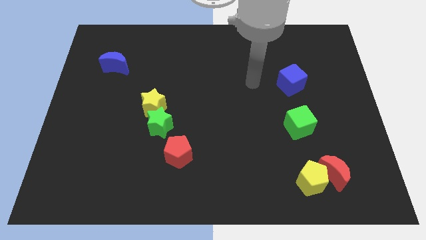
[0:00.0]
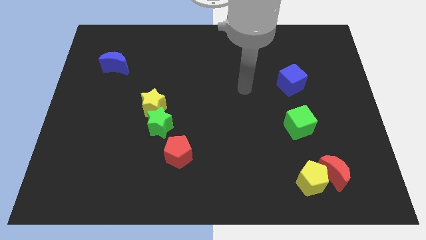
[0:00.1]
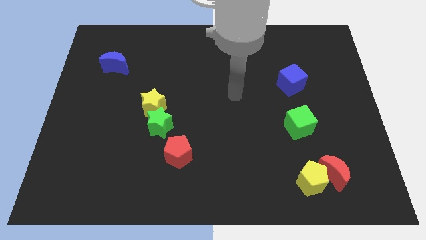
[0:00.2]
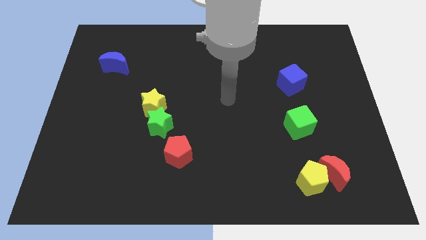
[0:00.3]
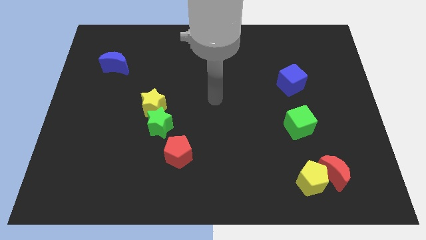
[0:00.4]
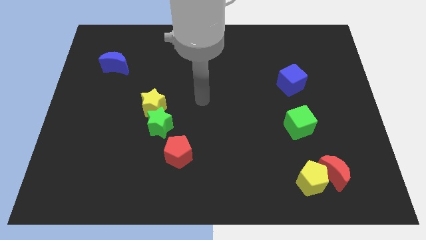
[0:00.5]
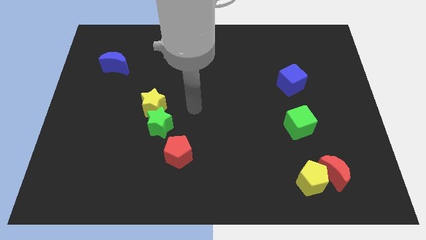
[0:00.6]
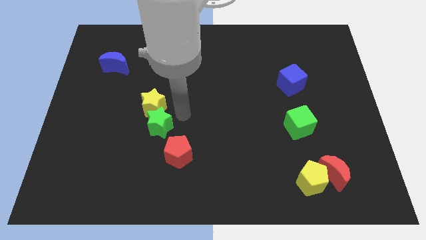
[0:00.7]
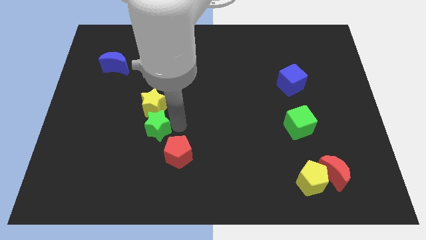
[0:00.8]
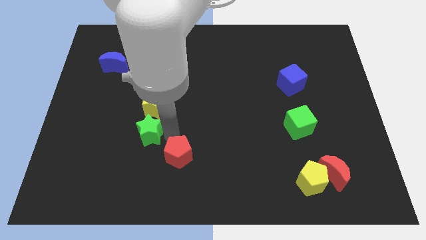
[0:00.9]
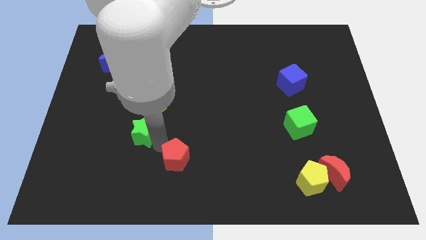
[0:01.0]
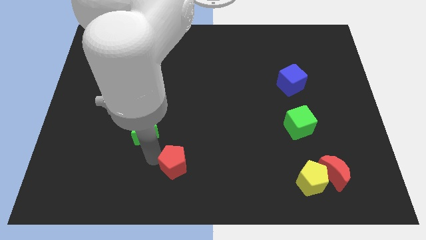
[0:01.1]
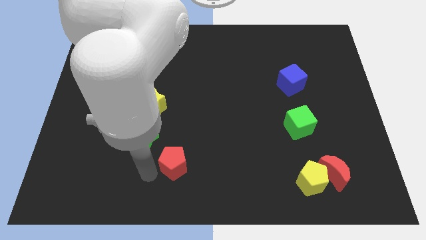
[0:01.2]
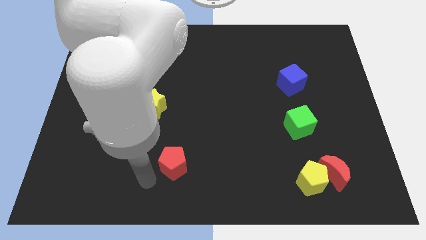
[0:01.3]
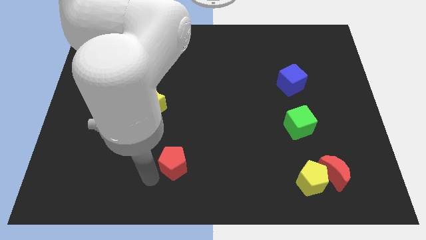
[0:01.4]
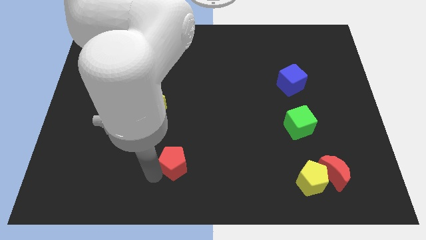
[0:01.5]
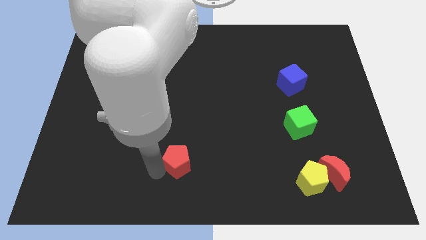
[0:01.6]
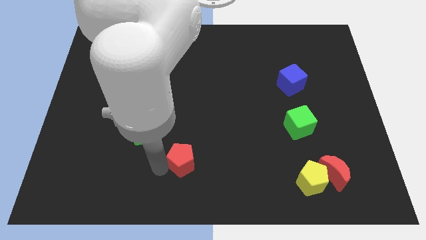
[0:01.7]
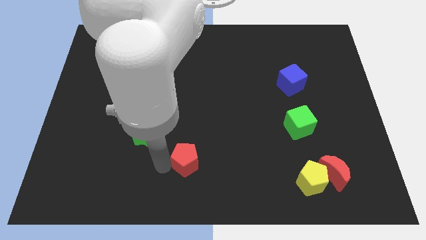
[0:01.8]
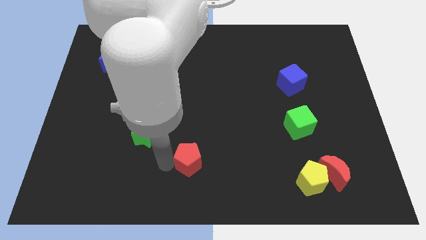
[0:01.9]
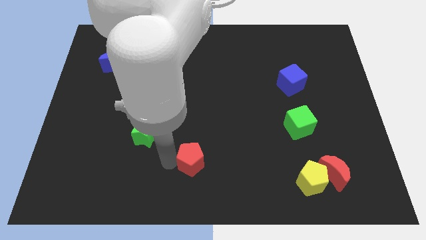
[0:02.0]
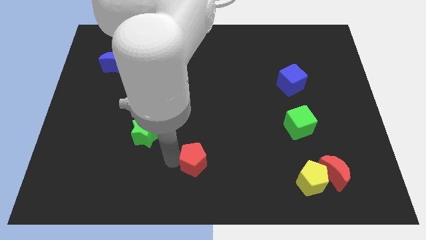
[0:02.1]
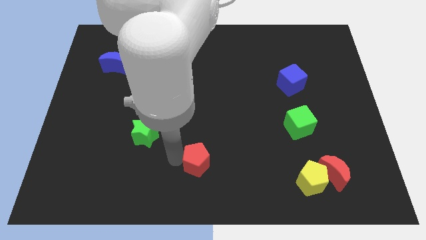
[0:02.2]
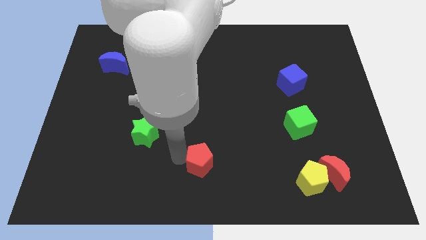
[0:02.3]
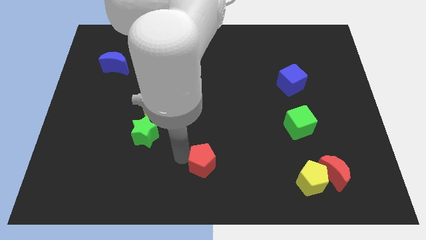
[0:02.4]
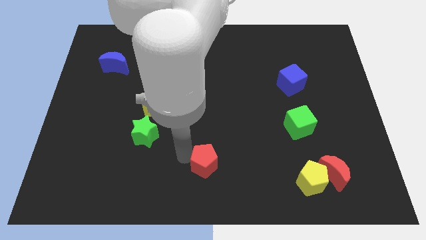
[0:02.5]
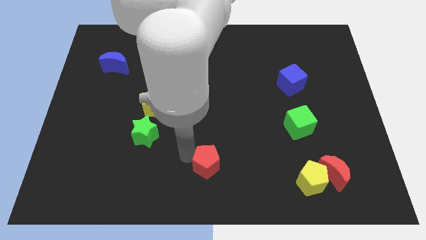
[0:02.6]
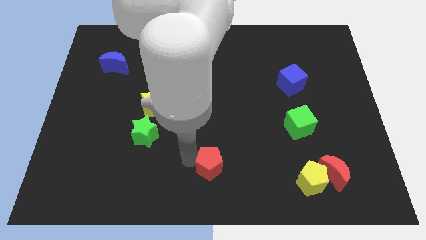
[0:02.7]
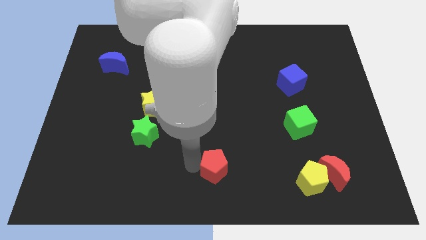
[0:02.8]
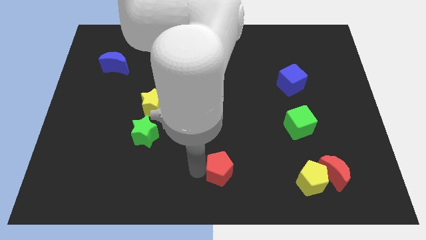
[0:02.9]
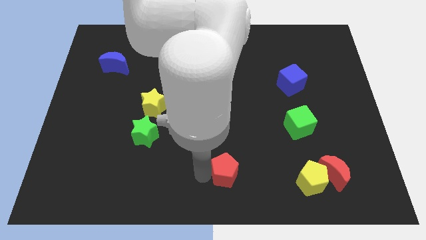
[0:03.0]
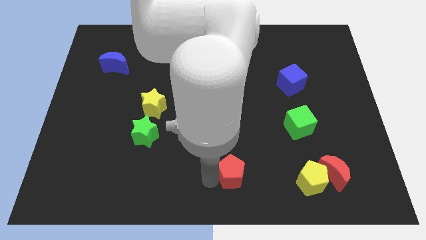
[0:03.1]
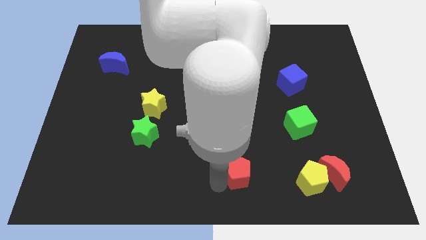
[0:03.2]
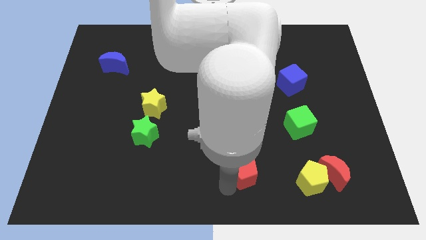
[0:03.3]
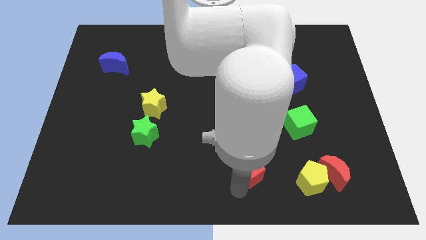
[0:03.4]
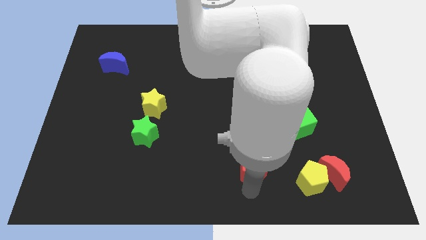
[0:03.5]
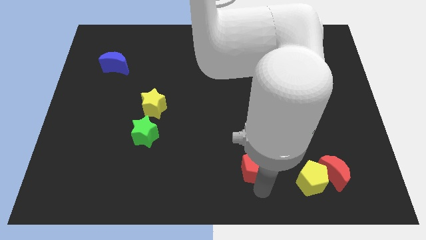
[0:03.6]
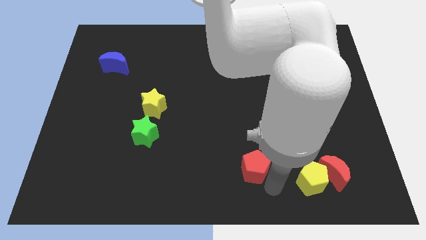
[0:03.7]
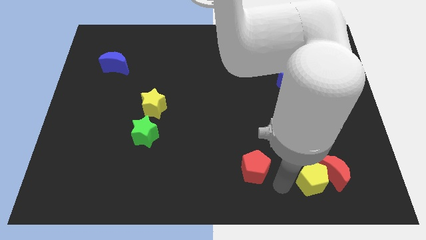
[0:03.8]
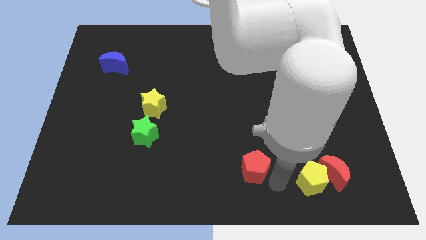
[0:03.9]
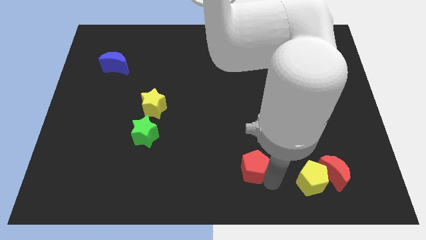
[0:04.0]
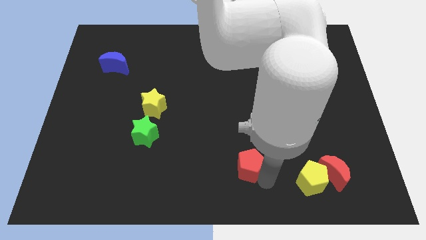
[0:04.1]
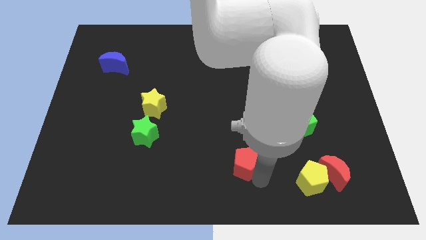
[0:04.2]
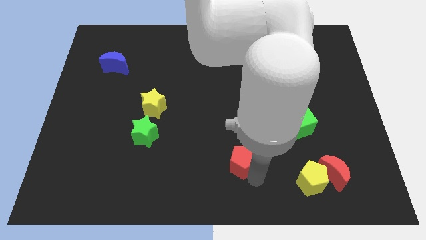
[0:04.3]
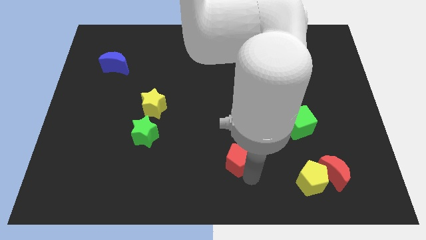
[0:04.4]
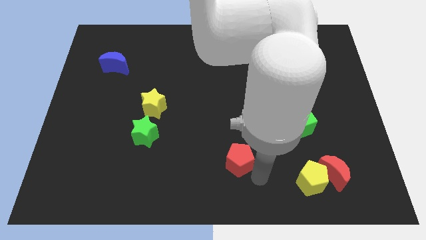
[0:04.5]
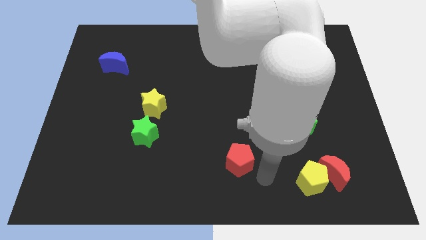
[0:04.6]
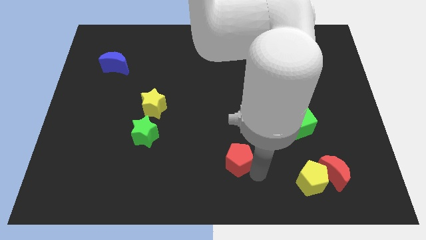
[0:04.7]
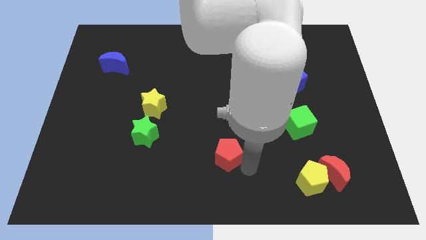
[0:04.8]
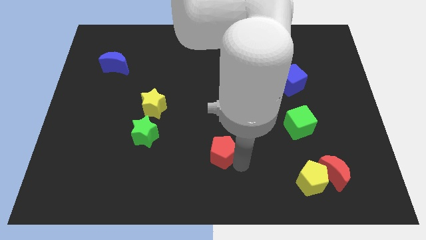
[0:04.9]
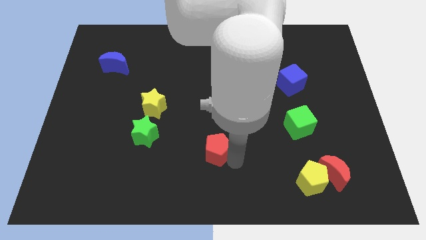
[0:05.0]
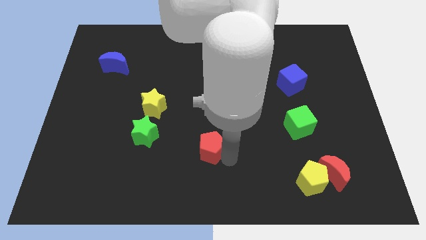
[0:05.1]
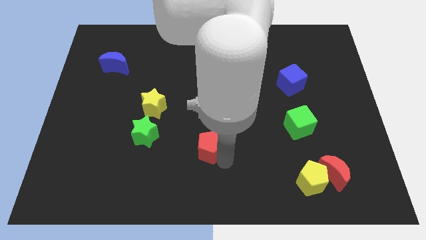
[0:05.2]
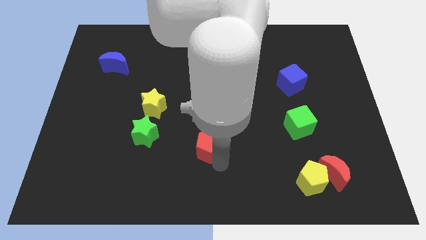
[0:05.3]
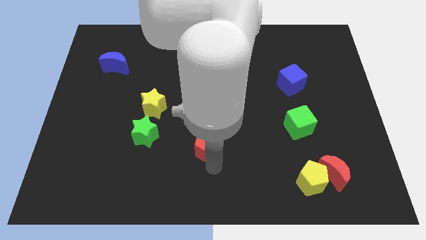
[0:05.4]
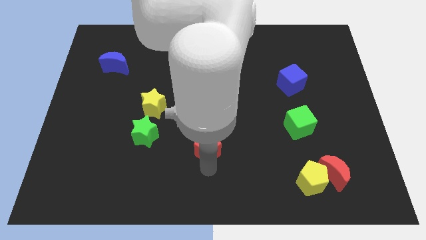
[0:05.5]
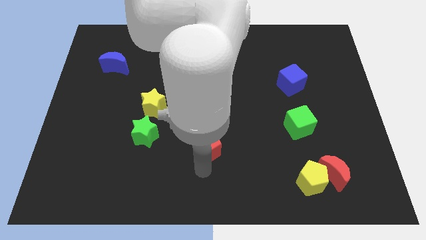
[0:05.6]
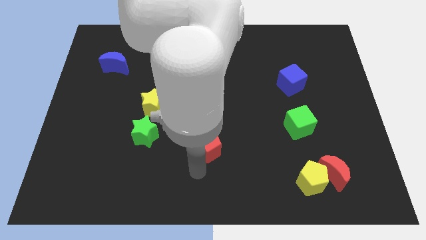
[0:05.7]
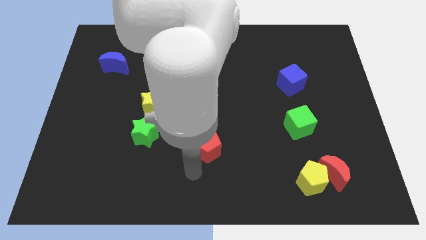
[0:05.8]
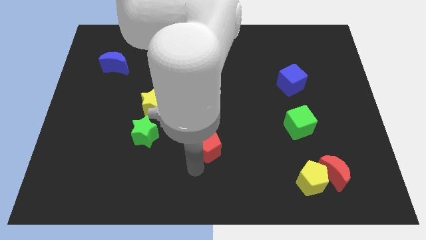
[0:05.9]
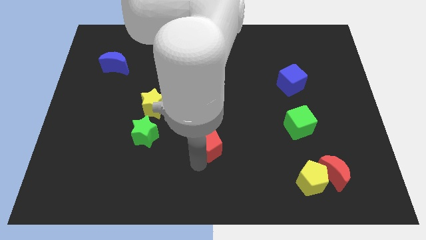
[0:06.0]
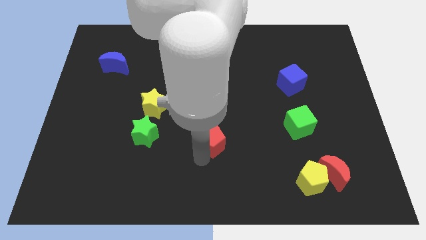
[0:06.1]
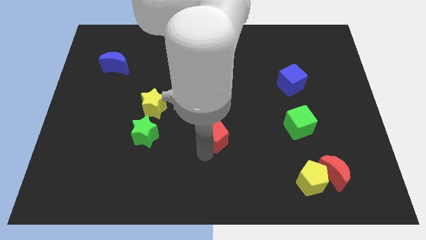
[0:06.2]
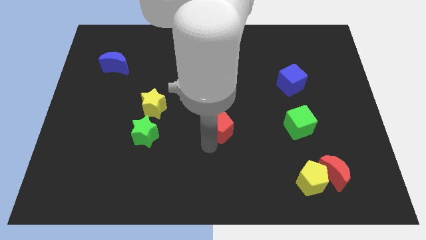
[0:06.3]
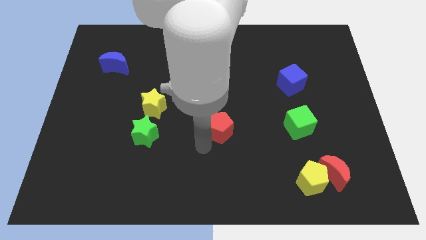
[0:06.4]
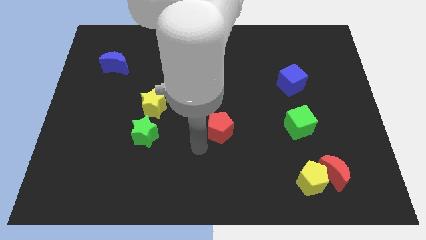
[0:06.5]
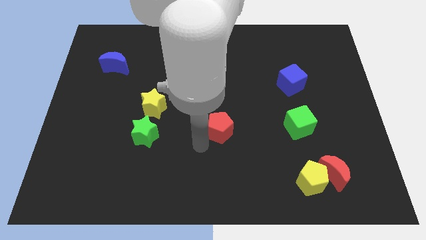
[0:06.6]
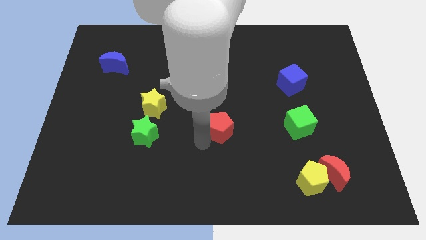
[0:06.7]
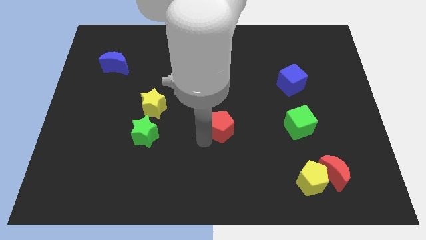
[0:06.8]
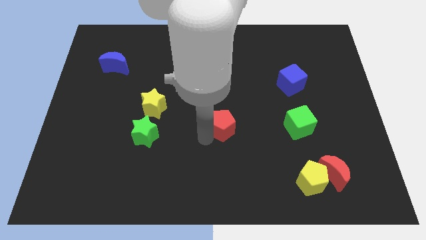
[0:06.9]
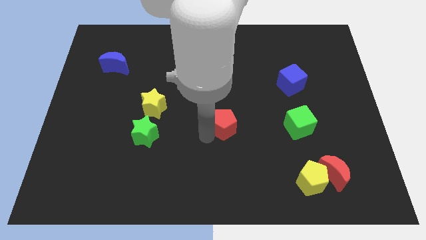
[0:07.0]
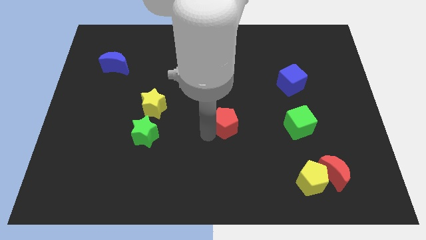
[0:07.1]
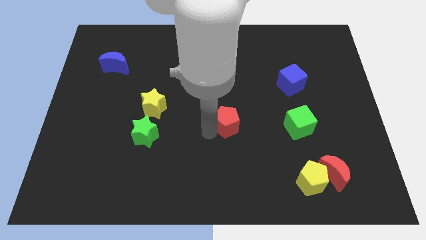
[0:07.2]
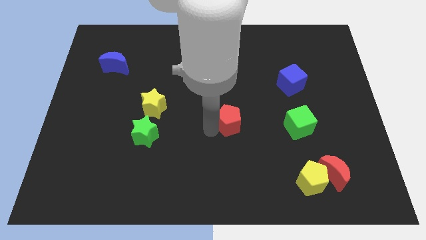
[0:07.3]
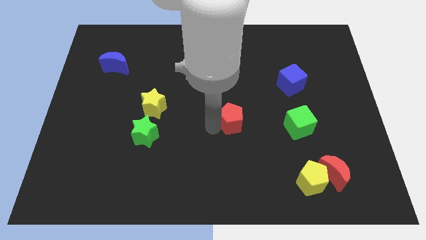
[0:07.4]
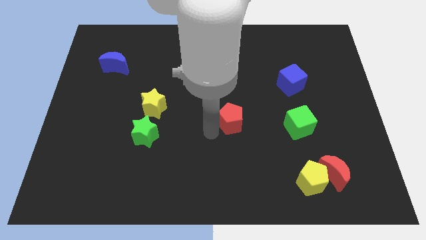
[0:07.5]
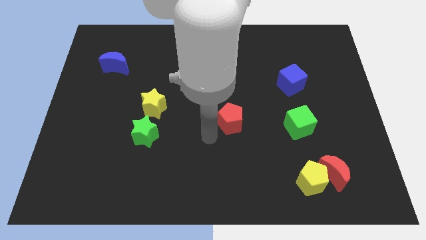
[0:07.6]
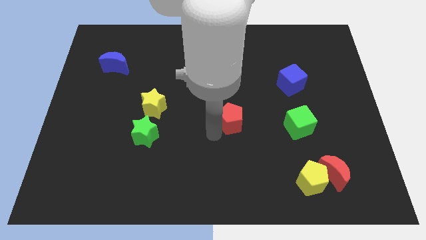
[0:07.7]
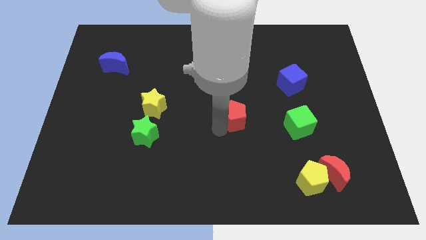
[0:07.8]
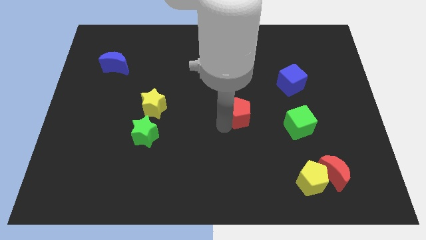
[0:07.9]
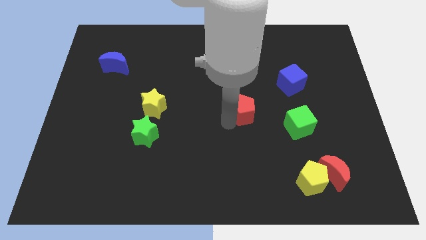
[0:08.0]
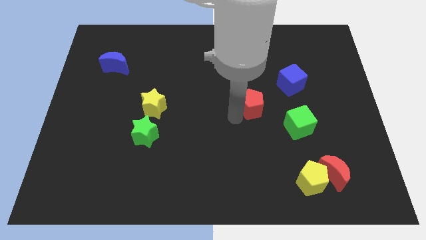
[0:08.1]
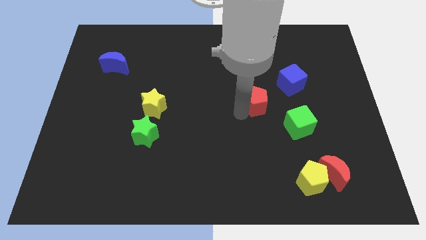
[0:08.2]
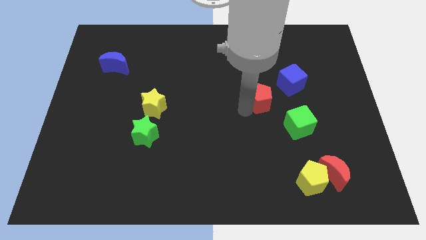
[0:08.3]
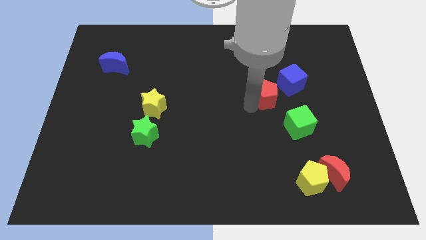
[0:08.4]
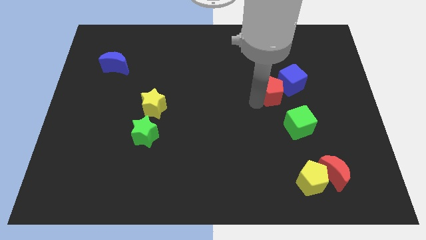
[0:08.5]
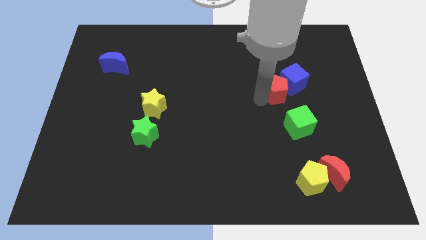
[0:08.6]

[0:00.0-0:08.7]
slide the red pentagon to the blue cube
